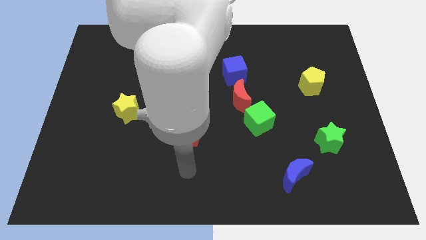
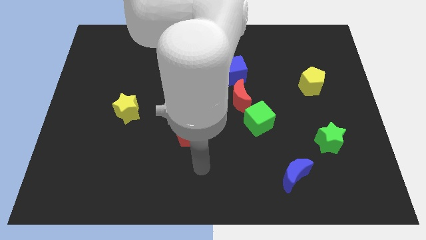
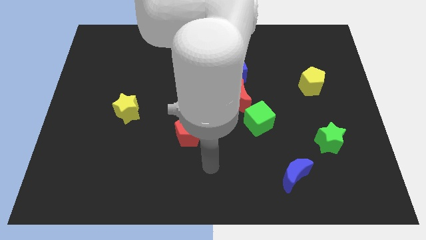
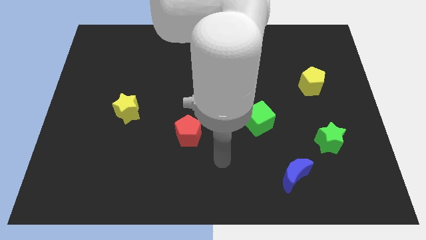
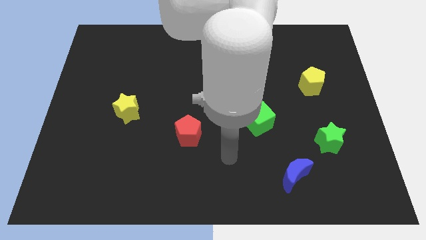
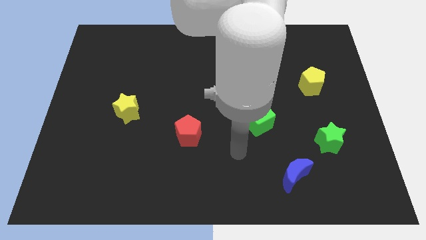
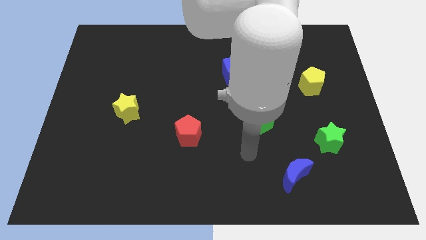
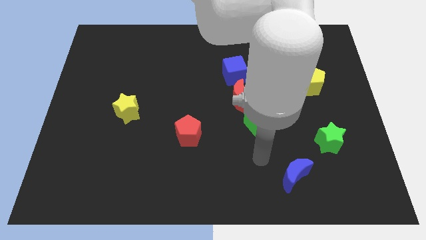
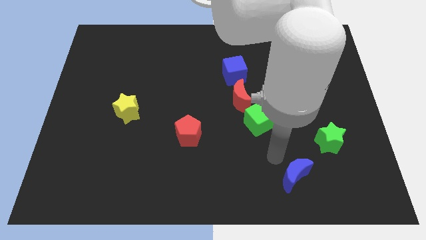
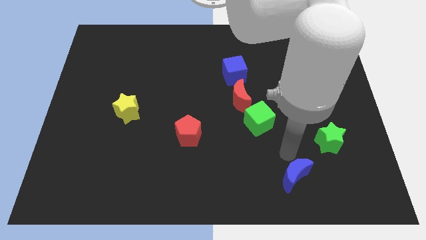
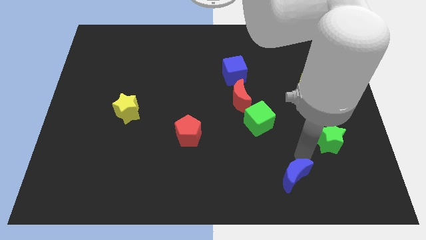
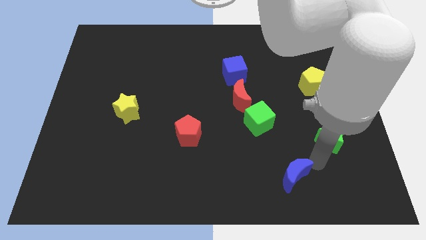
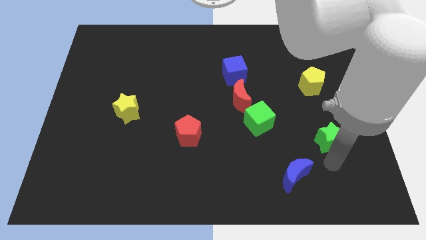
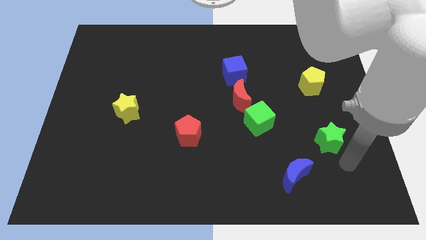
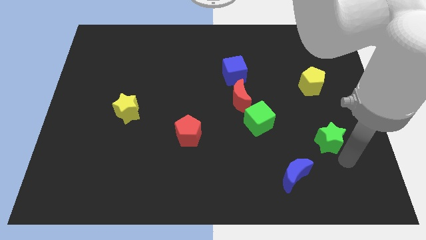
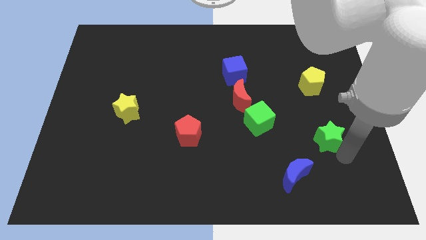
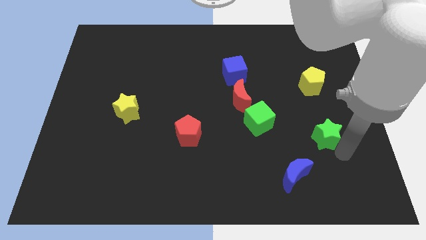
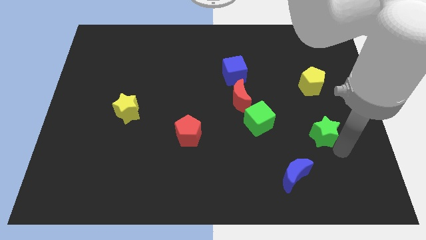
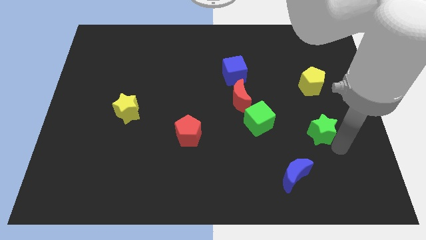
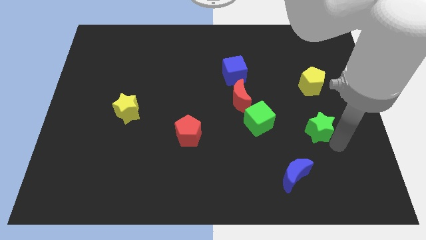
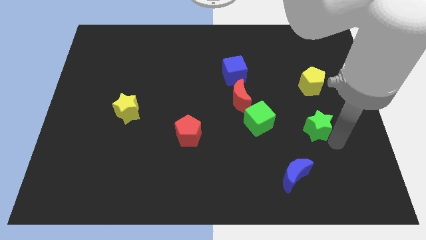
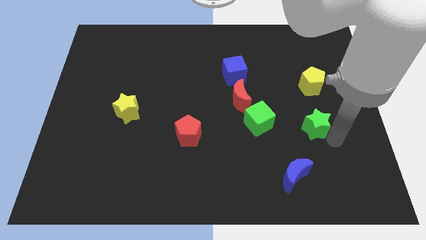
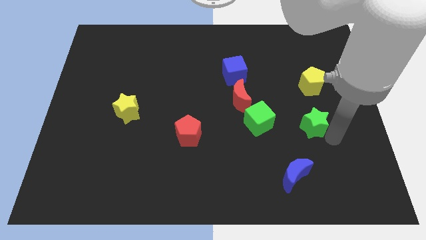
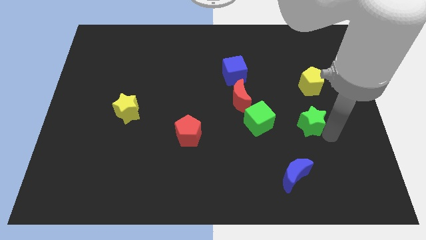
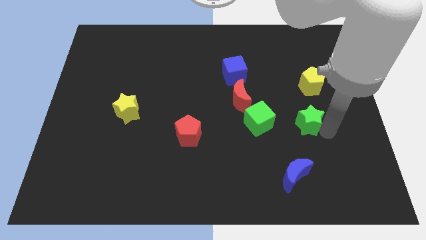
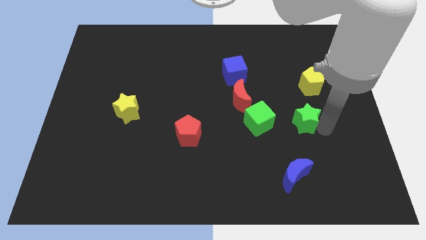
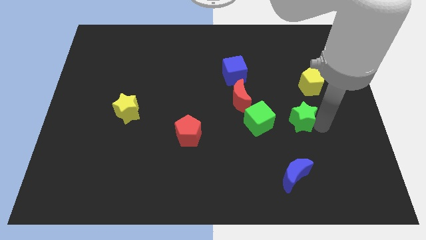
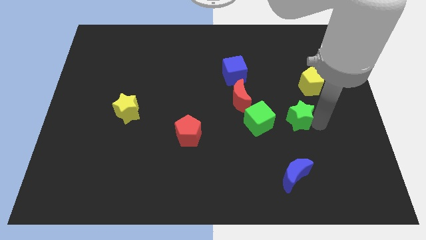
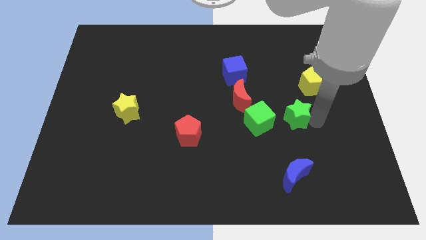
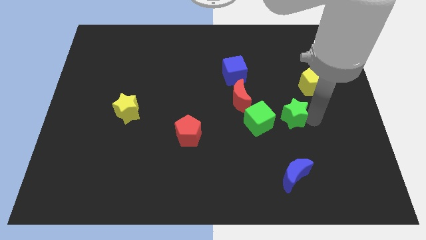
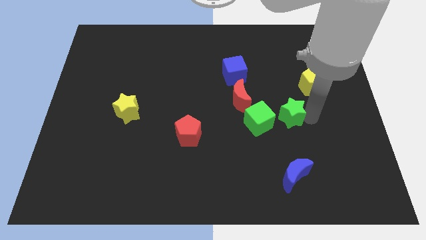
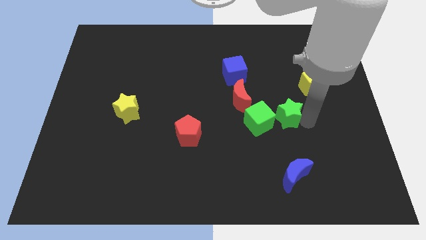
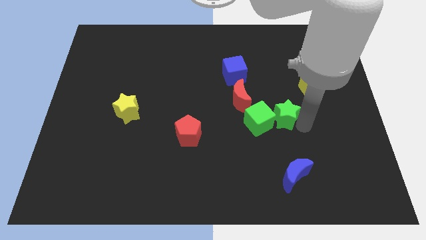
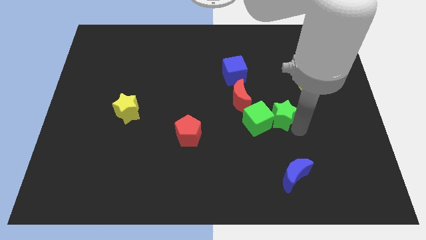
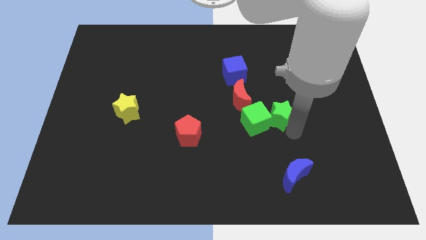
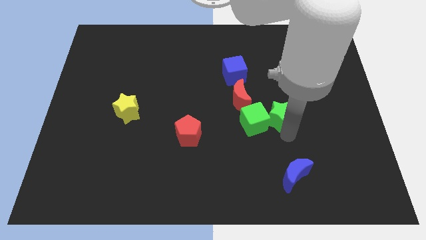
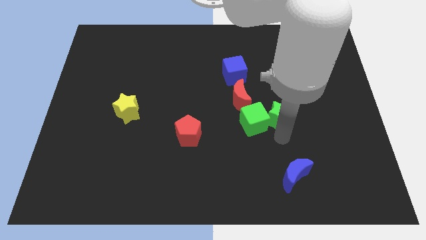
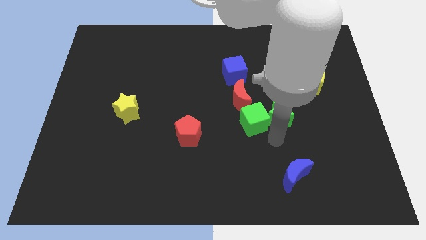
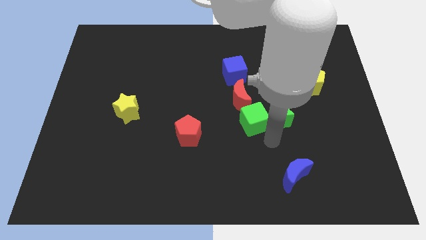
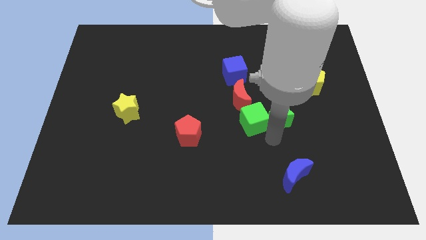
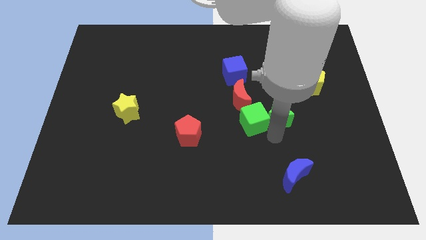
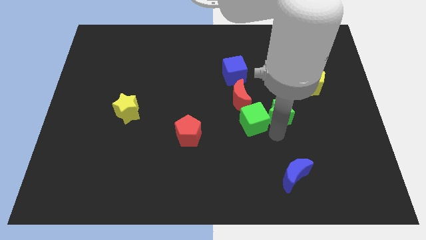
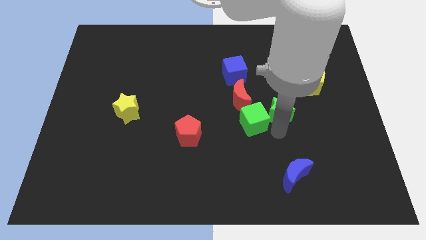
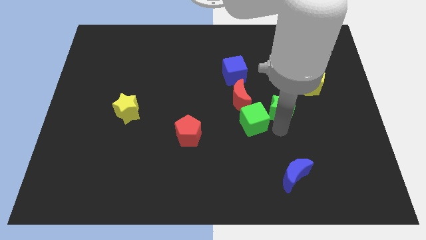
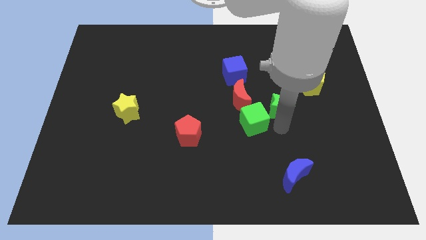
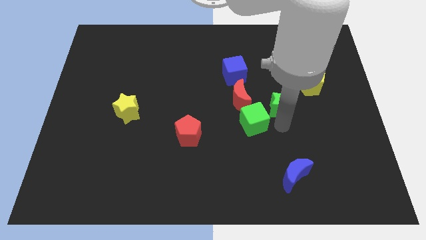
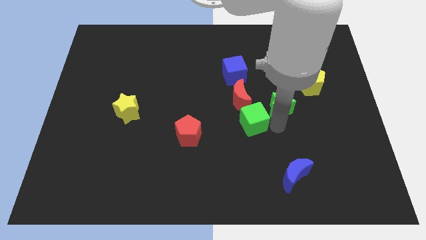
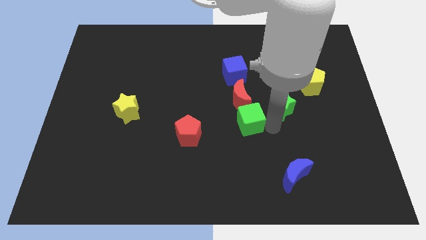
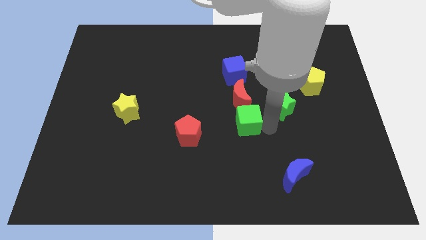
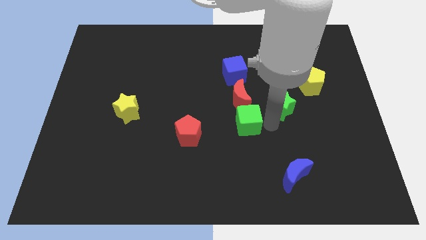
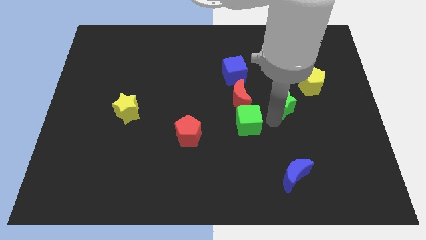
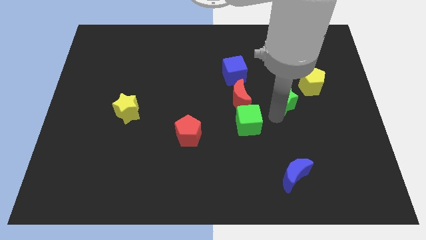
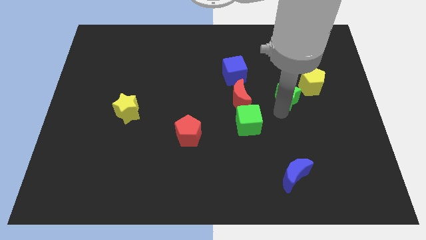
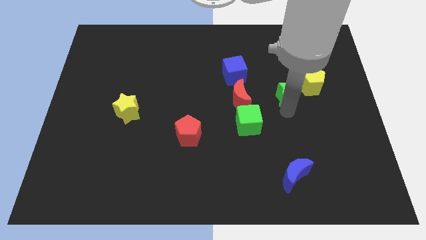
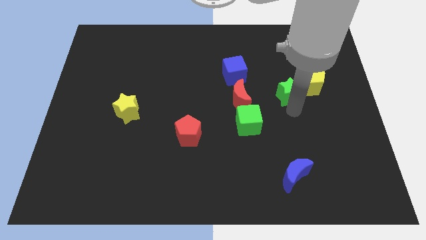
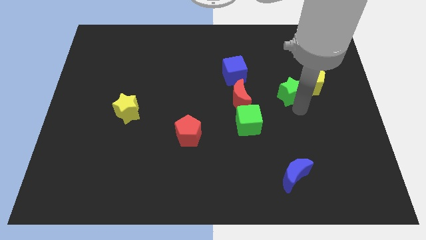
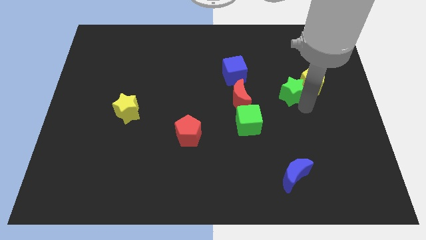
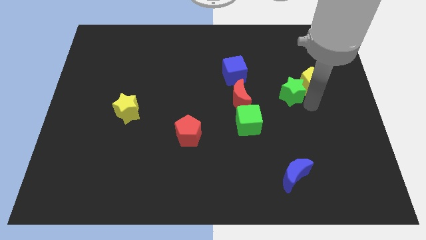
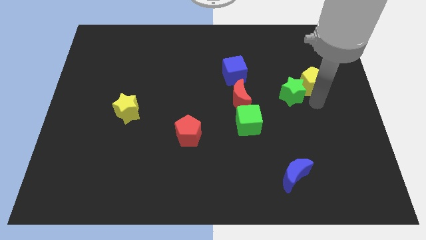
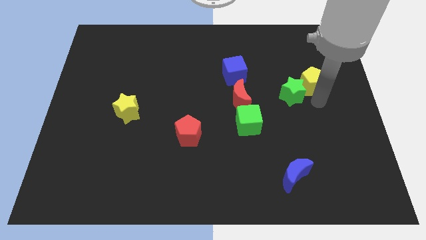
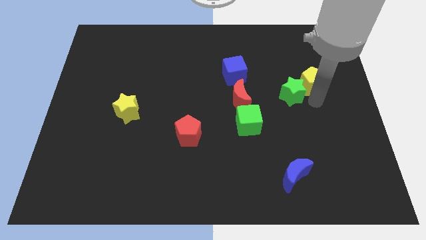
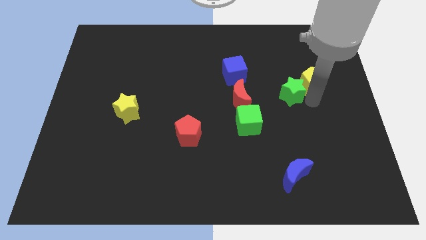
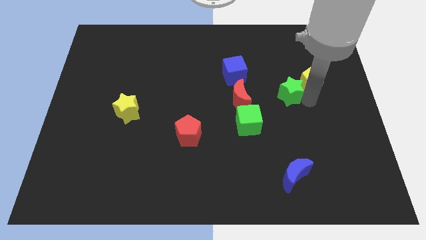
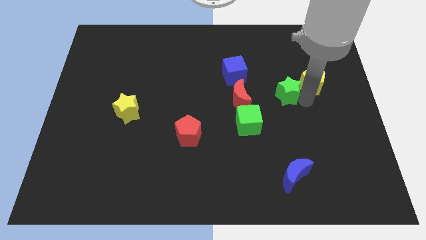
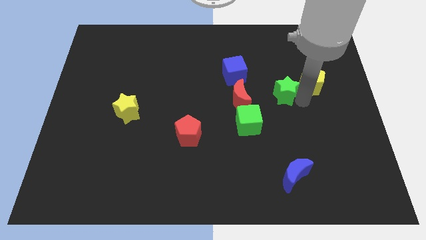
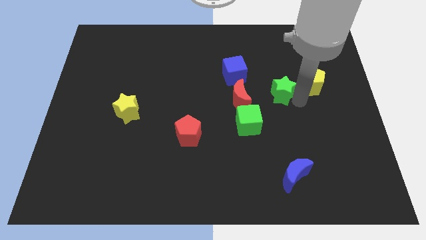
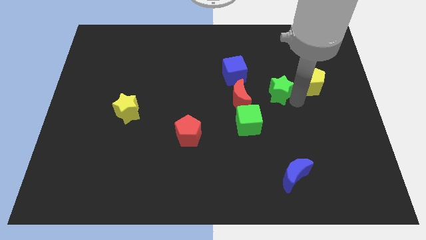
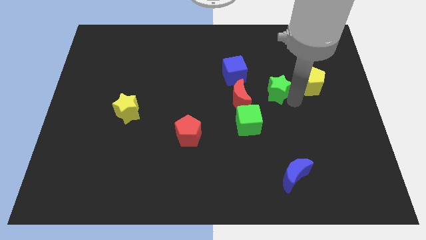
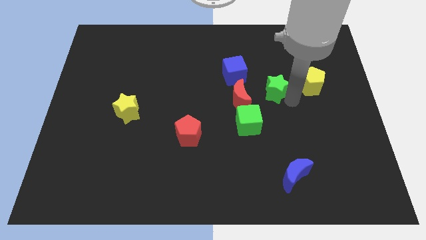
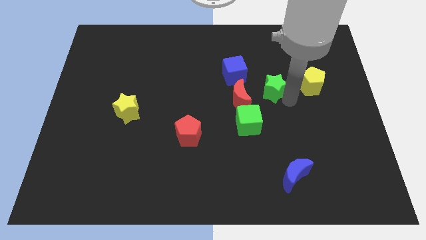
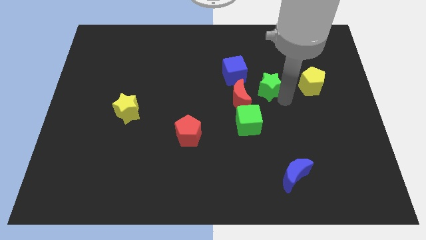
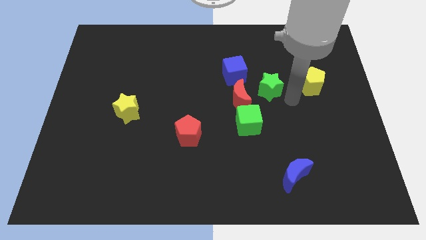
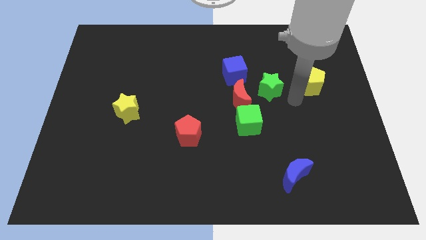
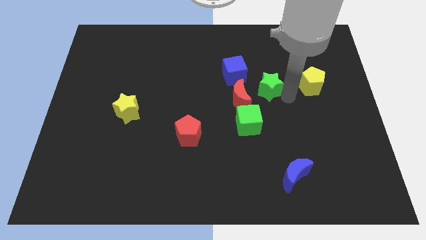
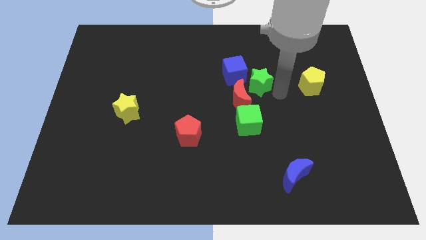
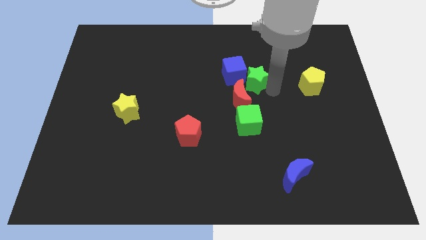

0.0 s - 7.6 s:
put the green star to the blue cube
